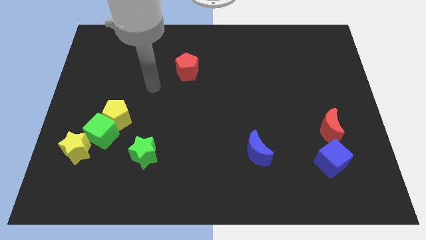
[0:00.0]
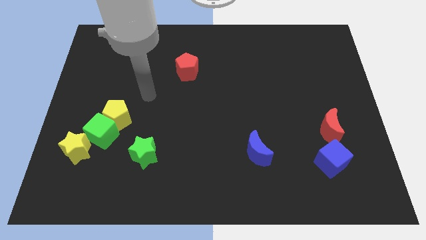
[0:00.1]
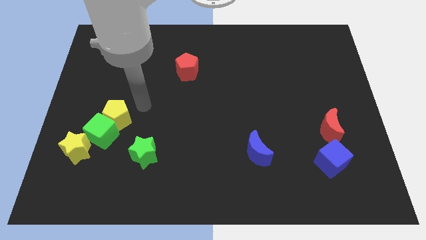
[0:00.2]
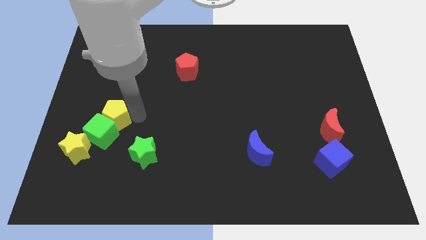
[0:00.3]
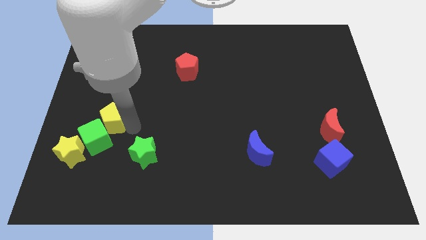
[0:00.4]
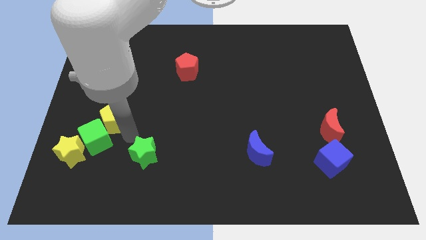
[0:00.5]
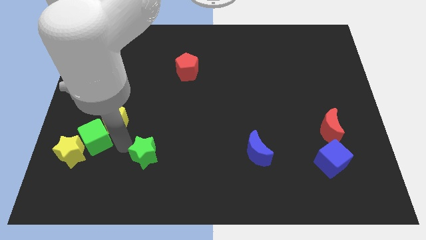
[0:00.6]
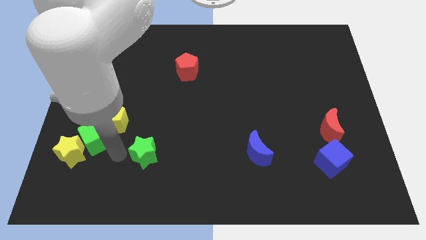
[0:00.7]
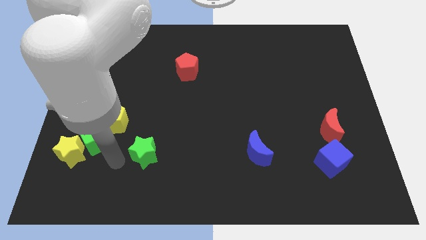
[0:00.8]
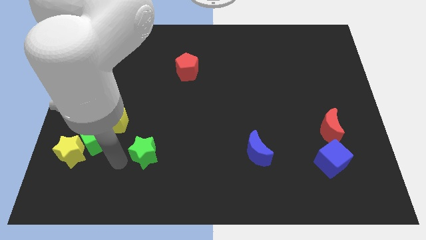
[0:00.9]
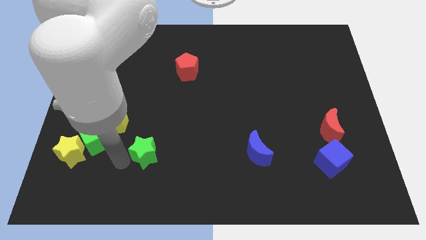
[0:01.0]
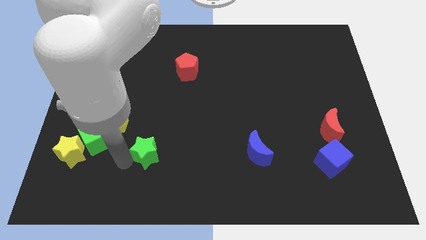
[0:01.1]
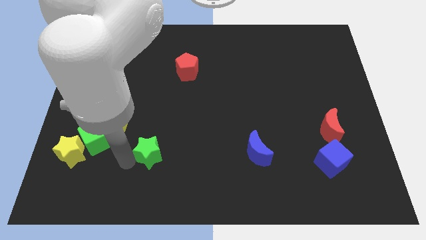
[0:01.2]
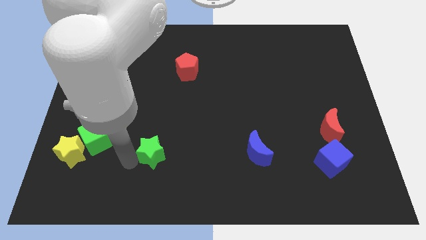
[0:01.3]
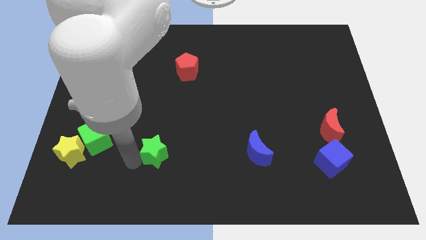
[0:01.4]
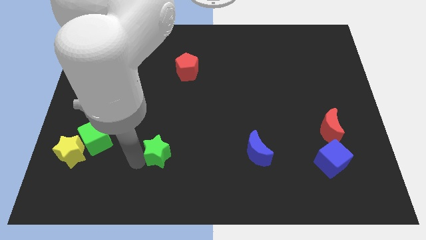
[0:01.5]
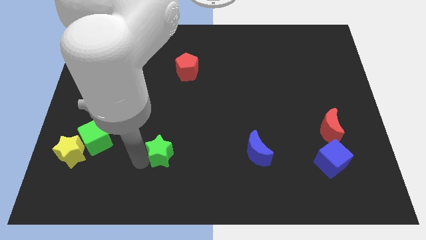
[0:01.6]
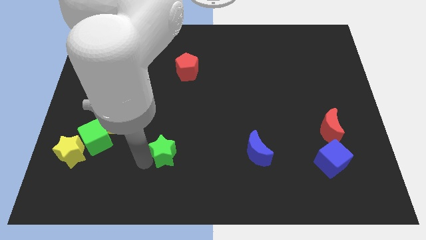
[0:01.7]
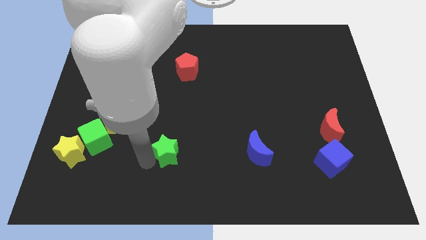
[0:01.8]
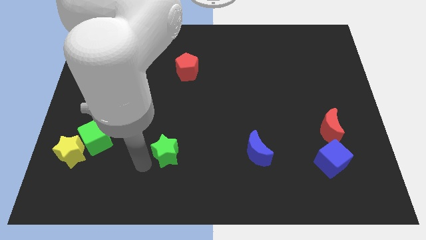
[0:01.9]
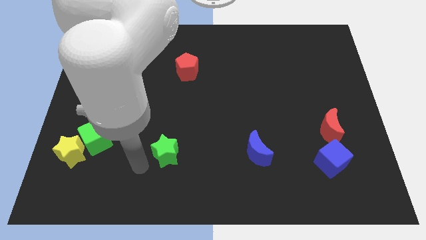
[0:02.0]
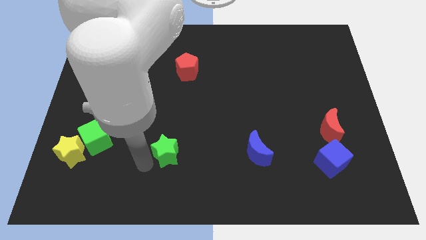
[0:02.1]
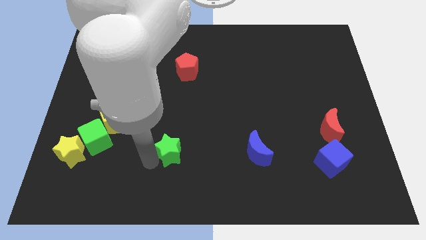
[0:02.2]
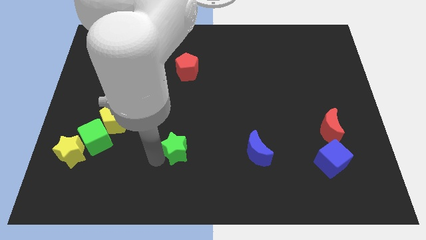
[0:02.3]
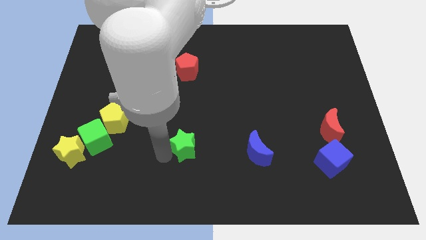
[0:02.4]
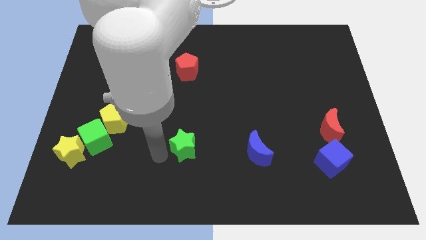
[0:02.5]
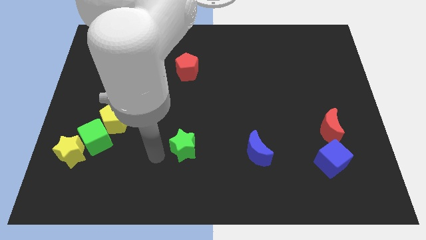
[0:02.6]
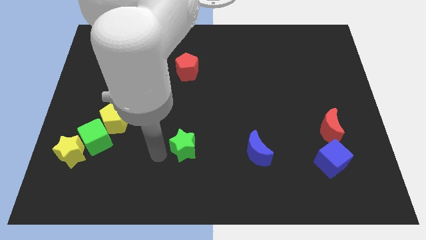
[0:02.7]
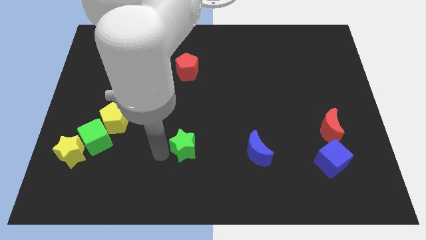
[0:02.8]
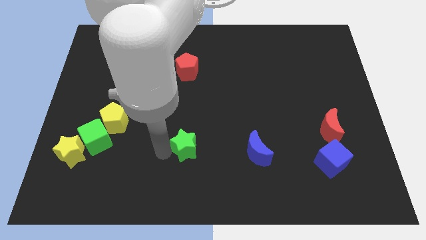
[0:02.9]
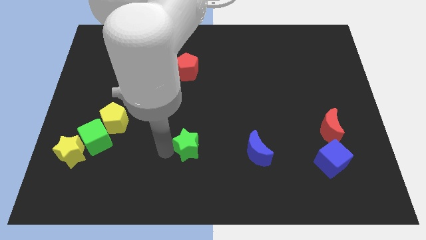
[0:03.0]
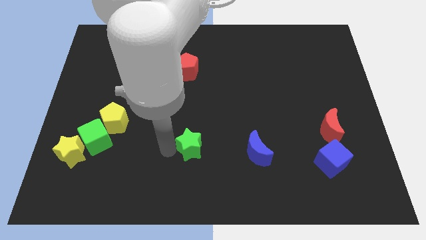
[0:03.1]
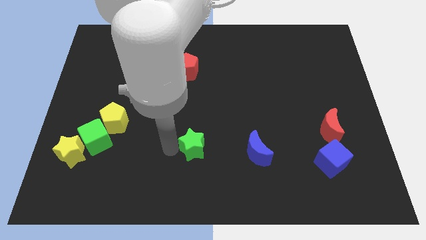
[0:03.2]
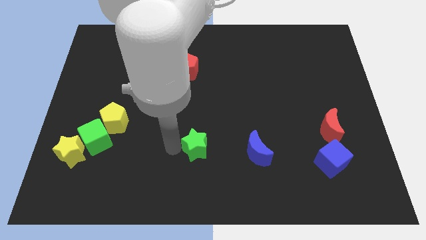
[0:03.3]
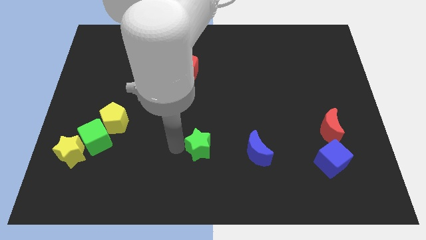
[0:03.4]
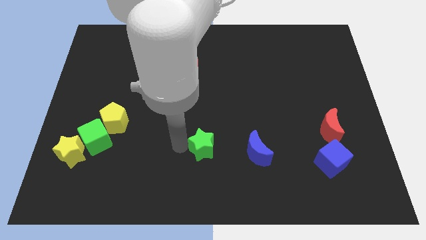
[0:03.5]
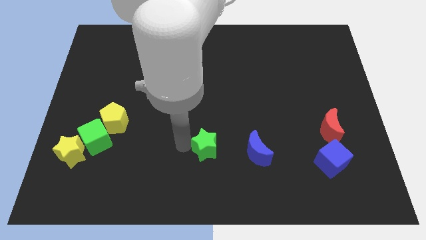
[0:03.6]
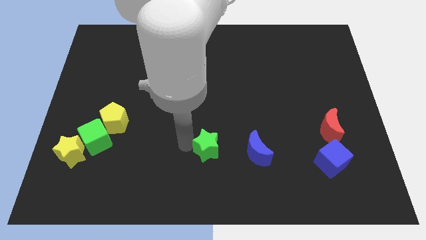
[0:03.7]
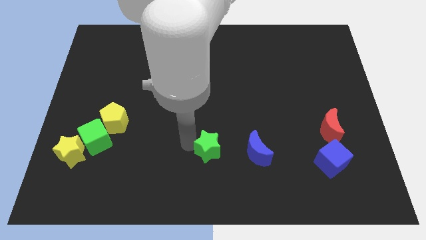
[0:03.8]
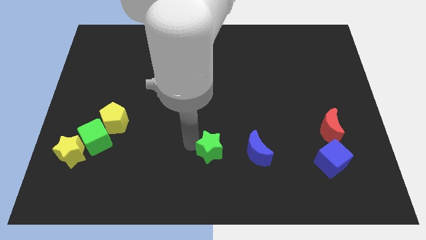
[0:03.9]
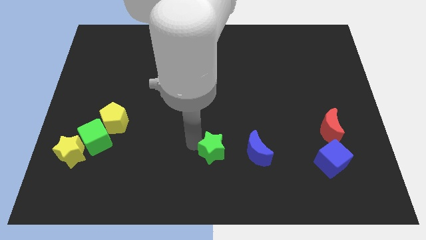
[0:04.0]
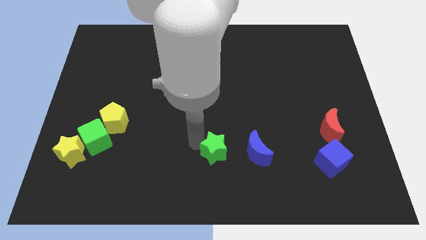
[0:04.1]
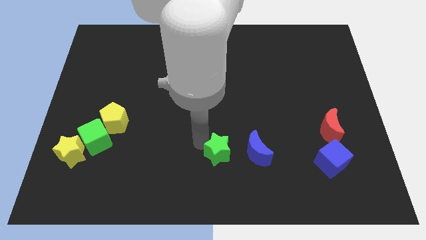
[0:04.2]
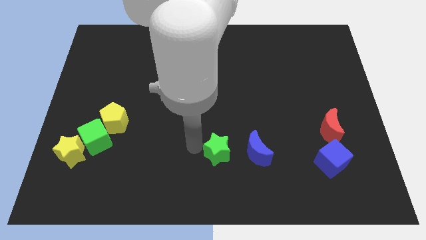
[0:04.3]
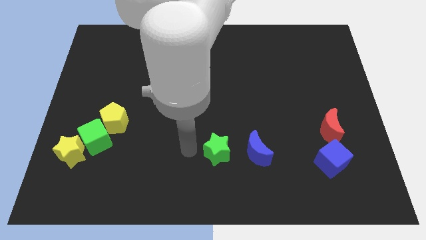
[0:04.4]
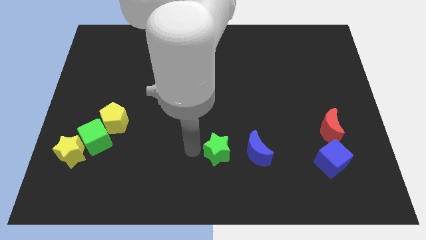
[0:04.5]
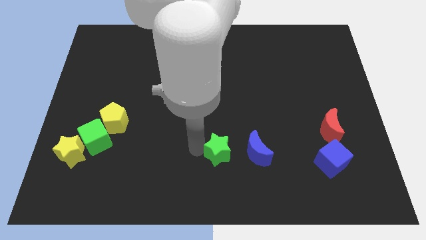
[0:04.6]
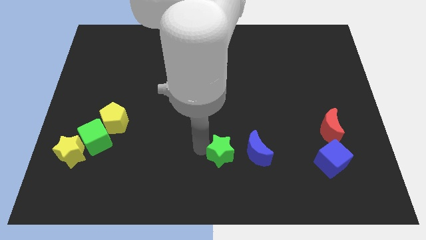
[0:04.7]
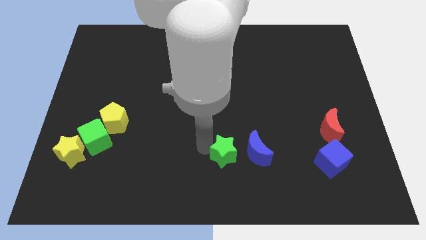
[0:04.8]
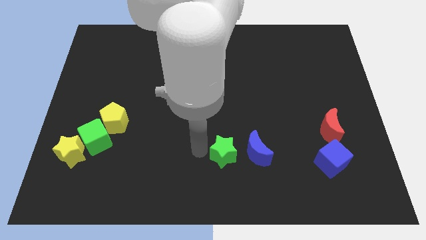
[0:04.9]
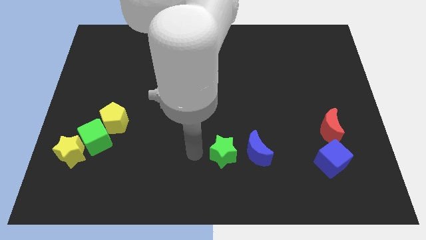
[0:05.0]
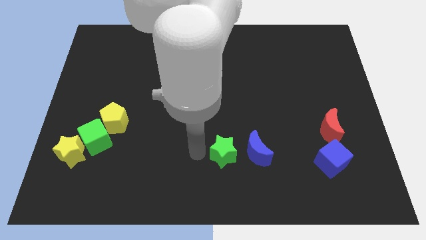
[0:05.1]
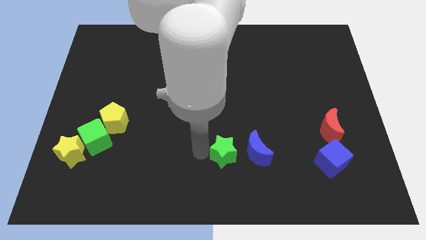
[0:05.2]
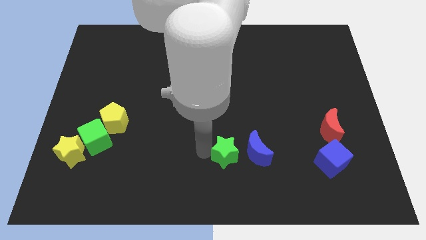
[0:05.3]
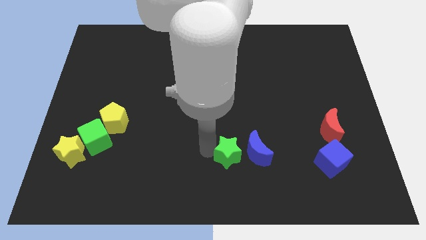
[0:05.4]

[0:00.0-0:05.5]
slide the green star to the blue moon

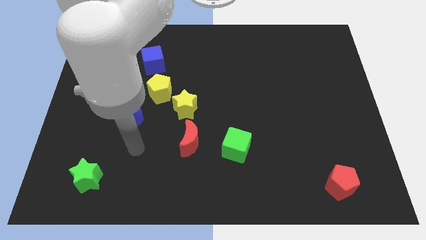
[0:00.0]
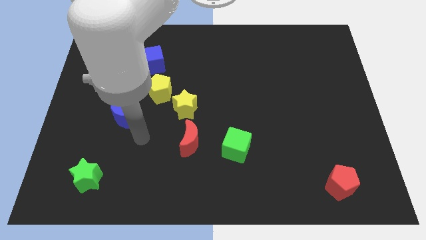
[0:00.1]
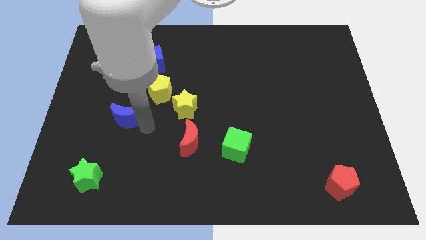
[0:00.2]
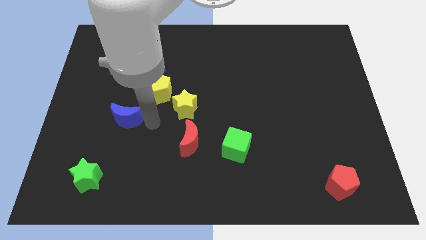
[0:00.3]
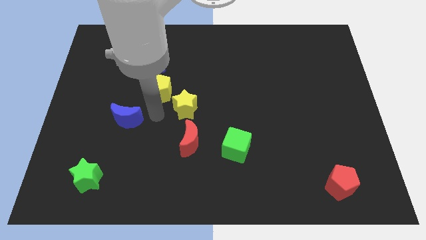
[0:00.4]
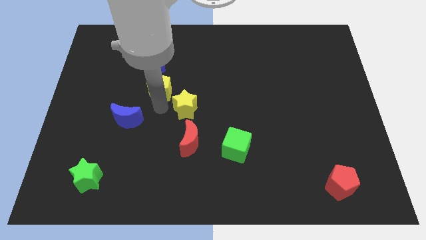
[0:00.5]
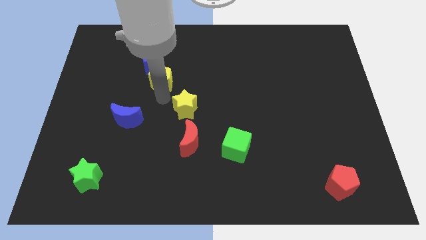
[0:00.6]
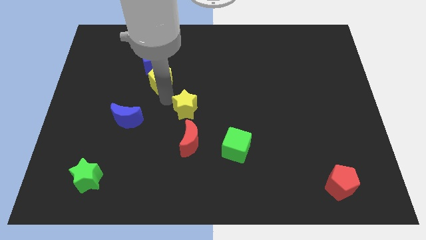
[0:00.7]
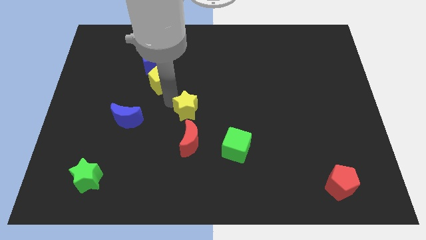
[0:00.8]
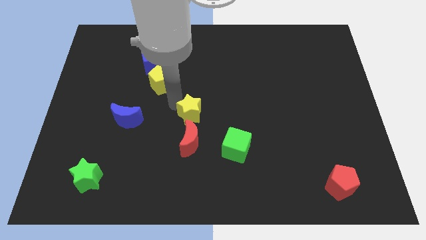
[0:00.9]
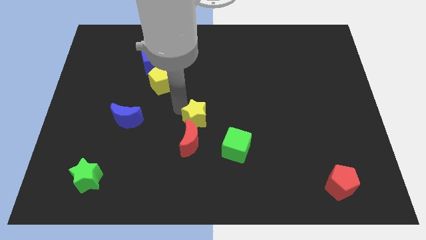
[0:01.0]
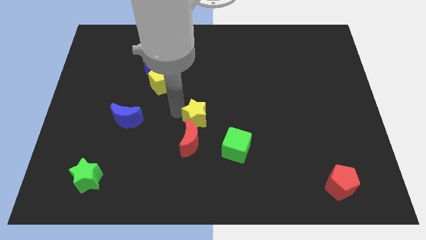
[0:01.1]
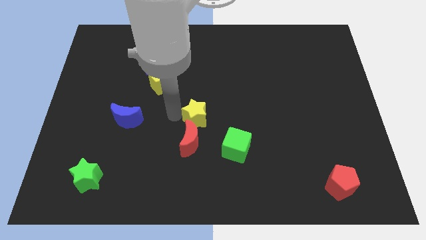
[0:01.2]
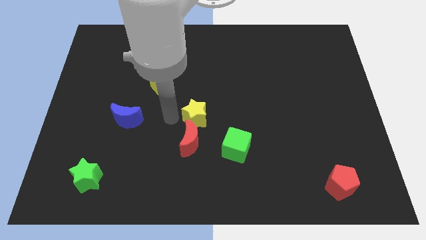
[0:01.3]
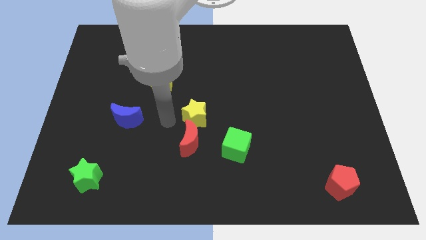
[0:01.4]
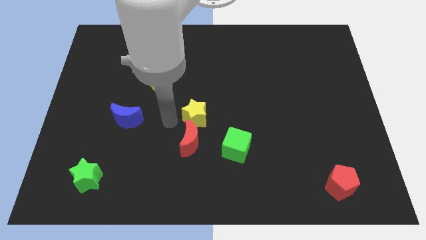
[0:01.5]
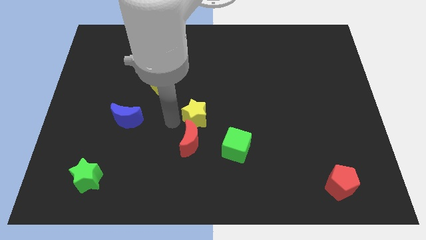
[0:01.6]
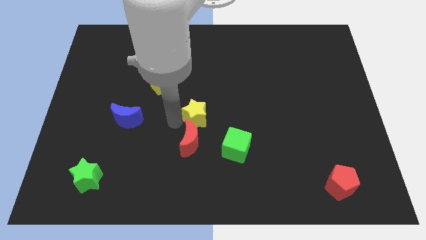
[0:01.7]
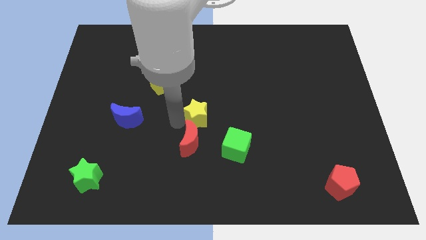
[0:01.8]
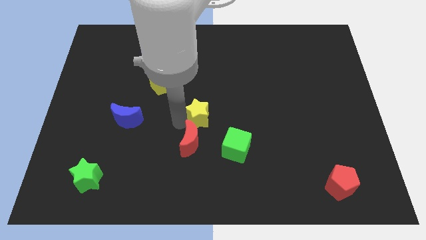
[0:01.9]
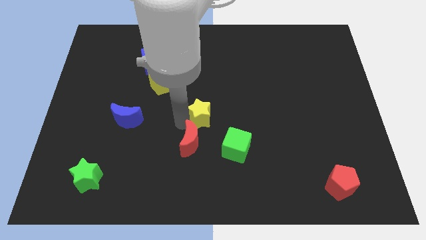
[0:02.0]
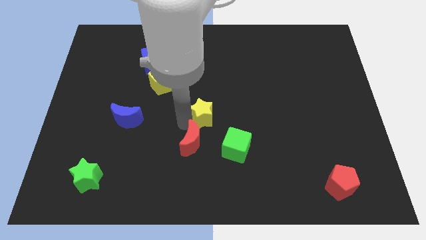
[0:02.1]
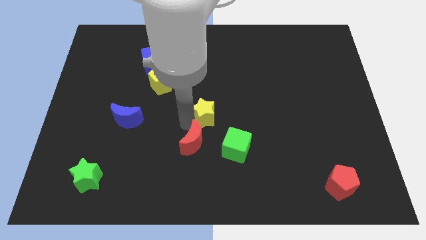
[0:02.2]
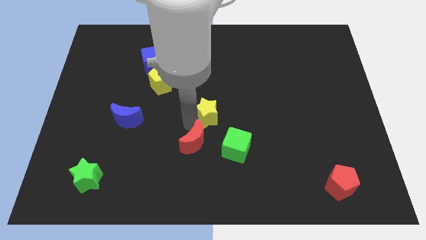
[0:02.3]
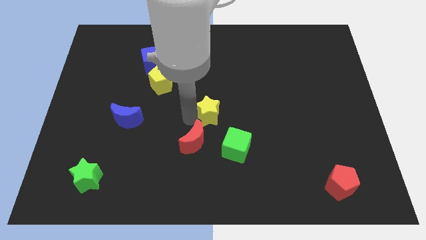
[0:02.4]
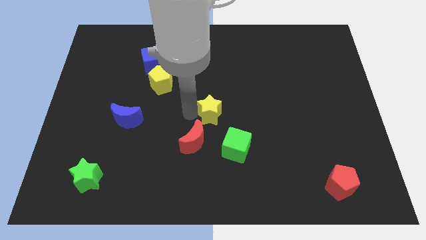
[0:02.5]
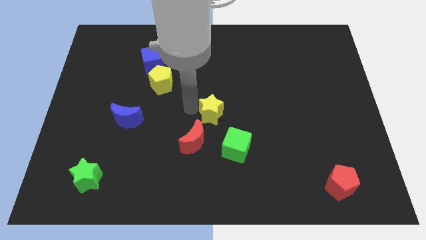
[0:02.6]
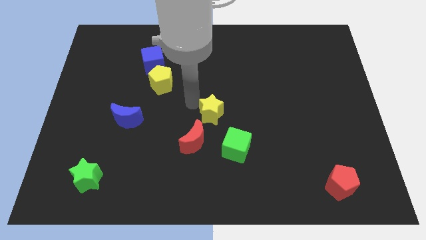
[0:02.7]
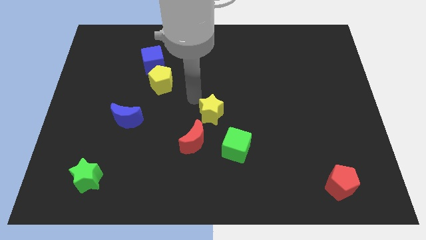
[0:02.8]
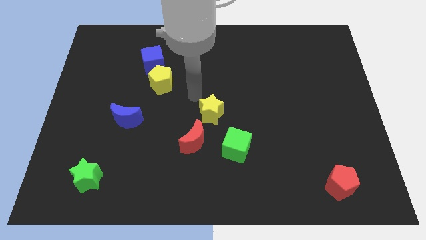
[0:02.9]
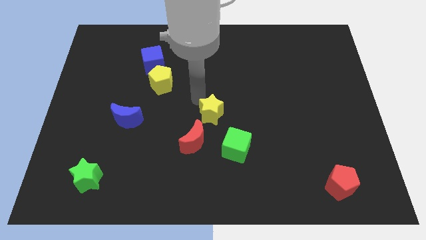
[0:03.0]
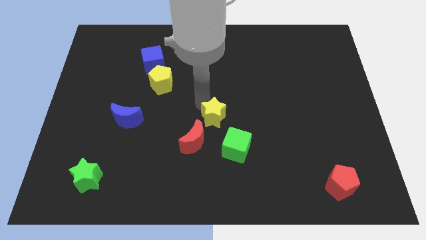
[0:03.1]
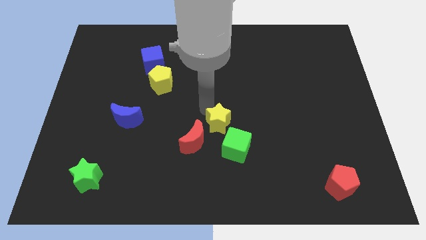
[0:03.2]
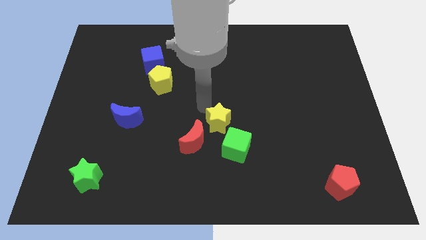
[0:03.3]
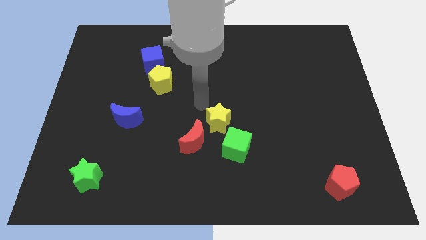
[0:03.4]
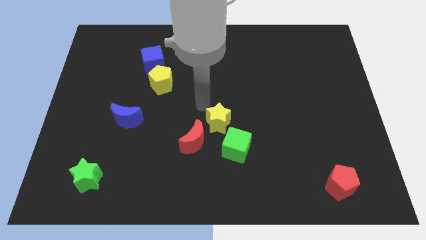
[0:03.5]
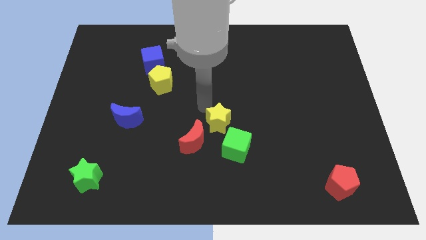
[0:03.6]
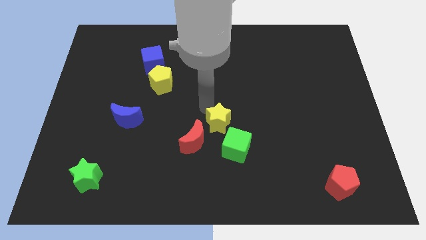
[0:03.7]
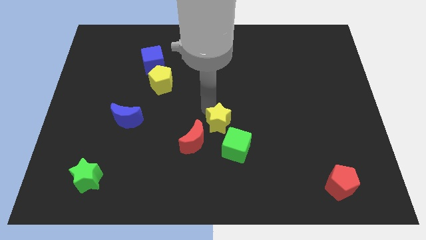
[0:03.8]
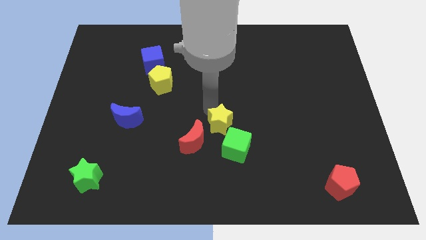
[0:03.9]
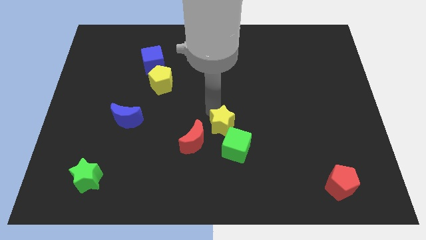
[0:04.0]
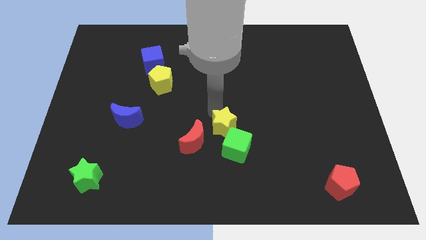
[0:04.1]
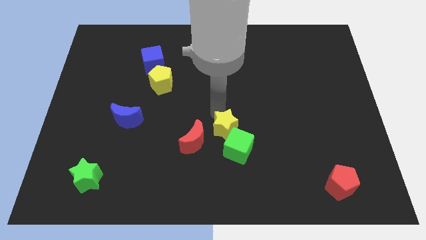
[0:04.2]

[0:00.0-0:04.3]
put the yellow star to the green cube
